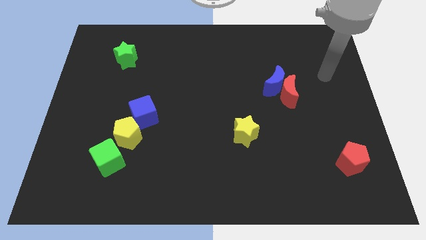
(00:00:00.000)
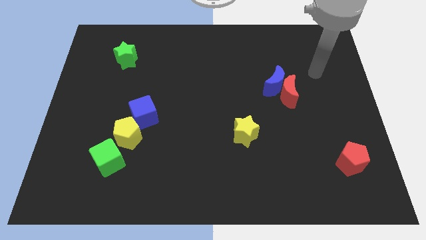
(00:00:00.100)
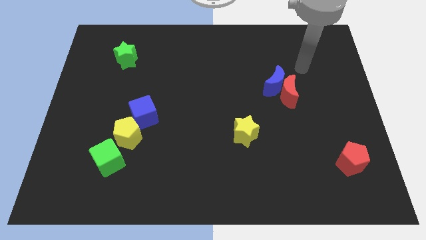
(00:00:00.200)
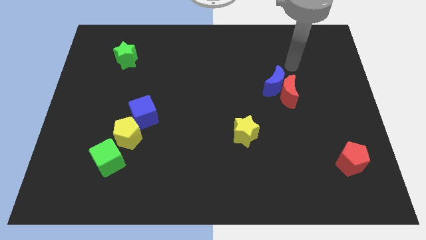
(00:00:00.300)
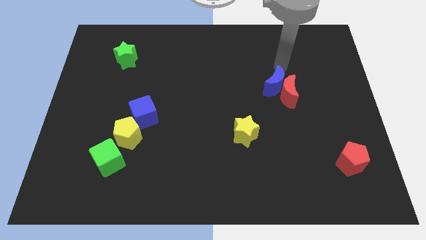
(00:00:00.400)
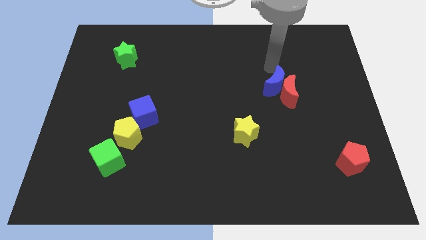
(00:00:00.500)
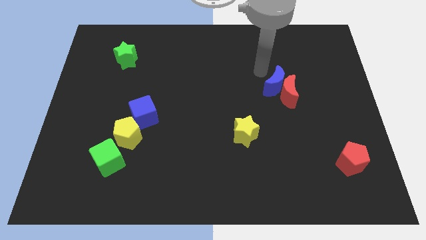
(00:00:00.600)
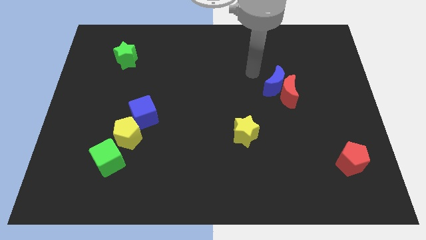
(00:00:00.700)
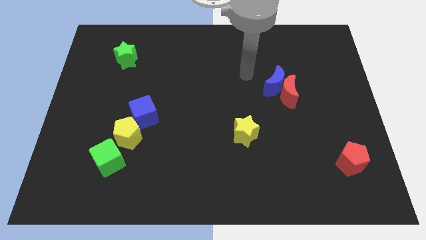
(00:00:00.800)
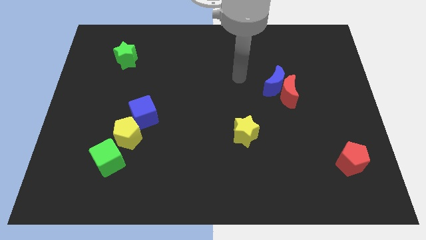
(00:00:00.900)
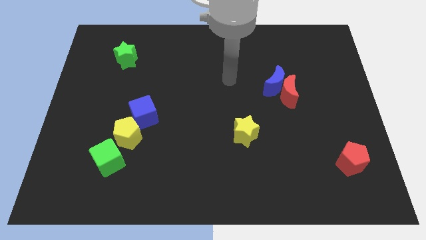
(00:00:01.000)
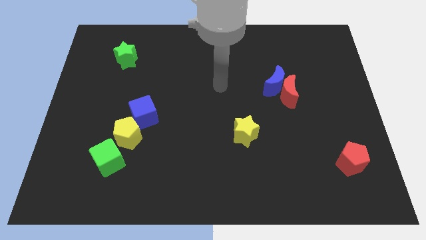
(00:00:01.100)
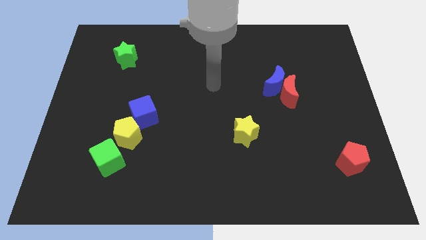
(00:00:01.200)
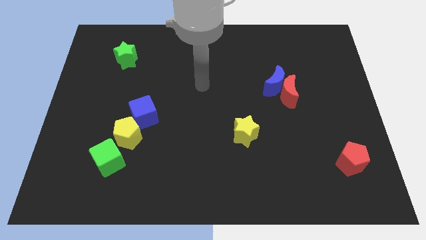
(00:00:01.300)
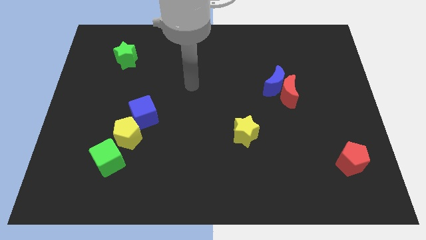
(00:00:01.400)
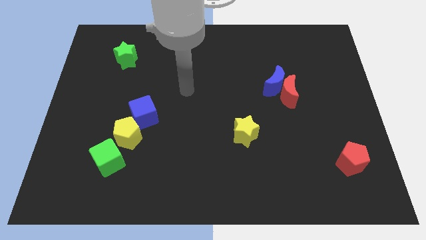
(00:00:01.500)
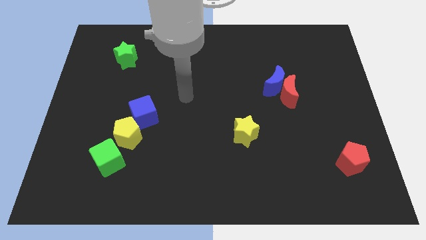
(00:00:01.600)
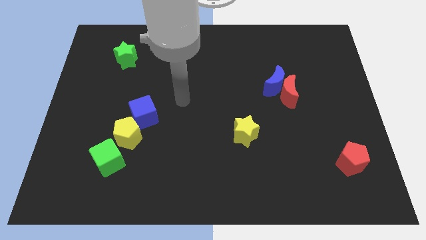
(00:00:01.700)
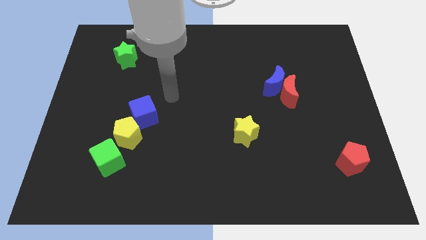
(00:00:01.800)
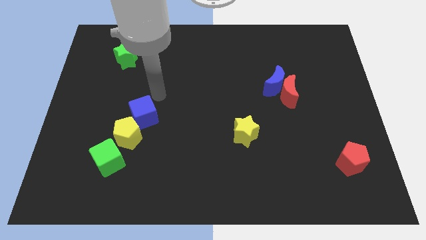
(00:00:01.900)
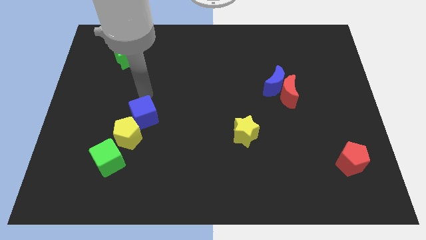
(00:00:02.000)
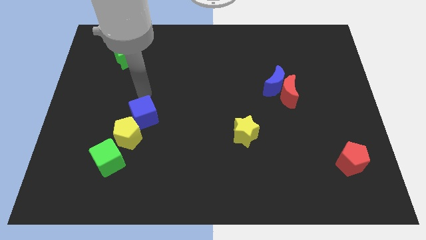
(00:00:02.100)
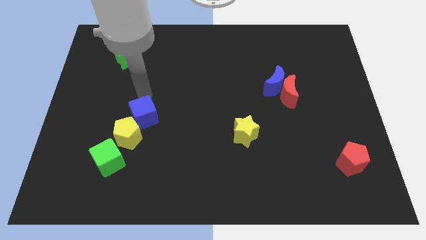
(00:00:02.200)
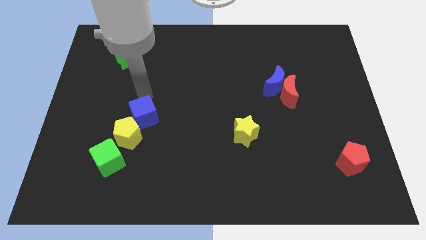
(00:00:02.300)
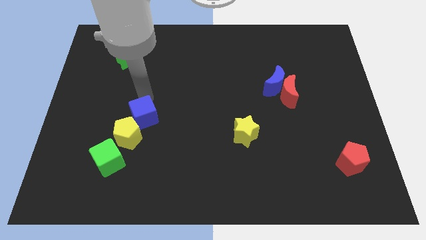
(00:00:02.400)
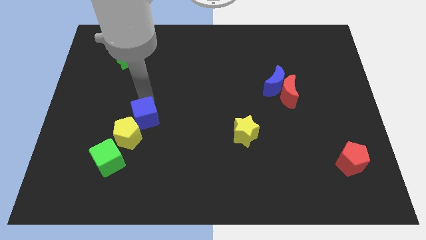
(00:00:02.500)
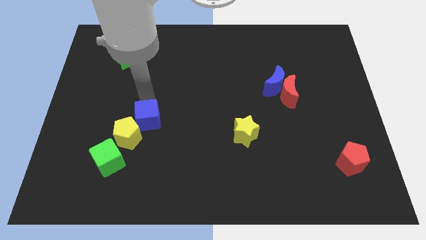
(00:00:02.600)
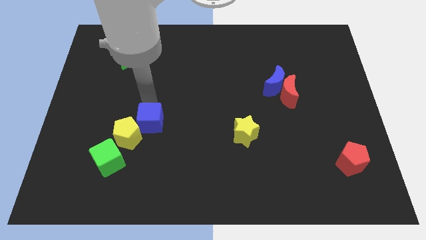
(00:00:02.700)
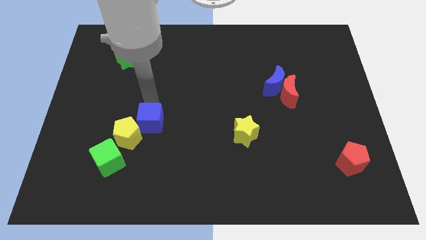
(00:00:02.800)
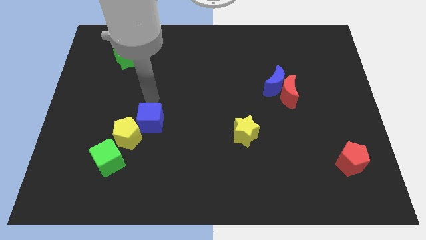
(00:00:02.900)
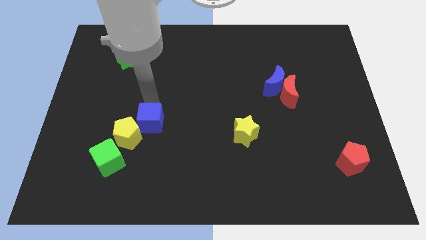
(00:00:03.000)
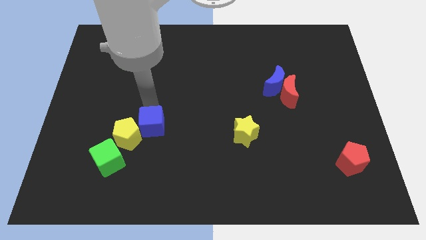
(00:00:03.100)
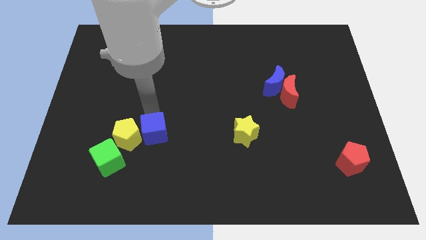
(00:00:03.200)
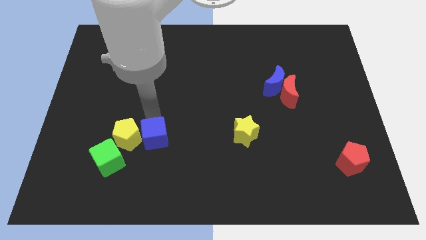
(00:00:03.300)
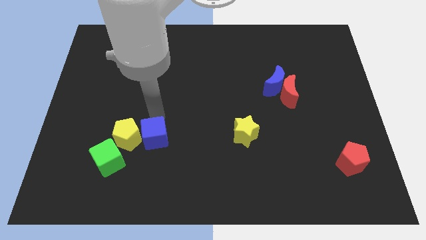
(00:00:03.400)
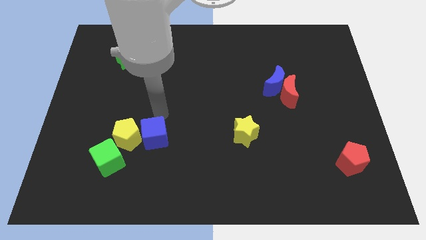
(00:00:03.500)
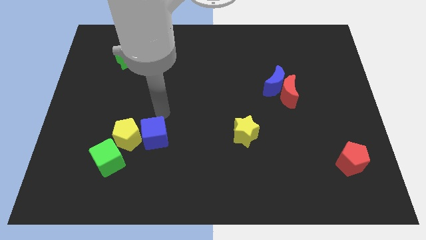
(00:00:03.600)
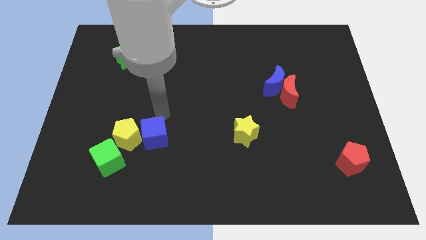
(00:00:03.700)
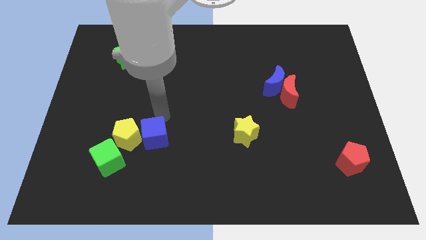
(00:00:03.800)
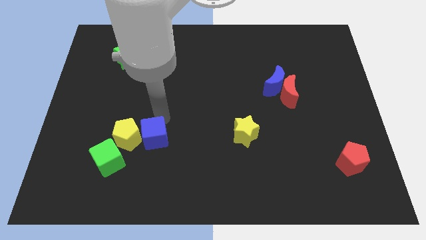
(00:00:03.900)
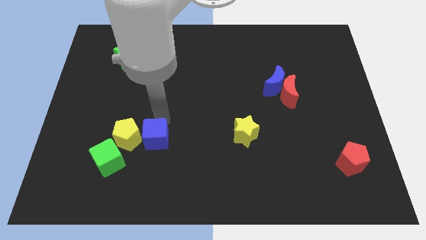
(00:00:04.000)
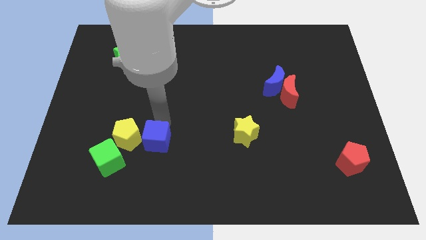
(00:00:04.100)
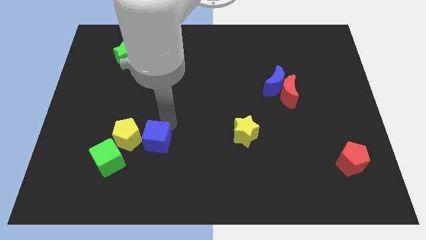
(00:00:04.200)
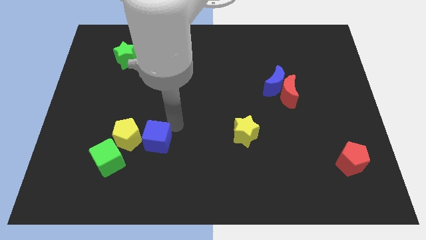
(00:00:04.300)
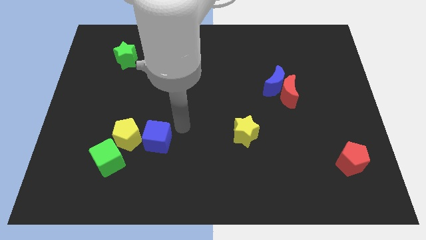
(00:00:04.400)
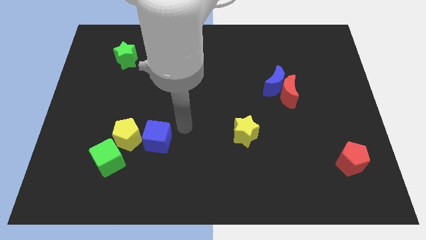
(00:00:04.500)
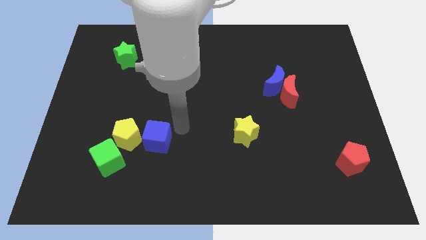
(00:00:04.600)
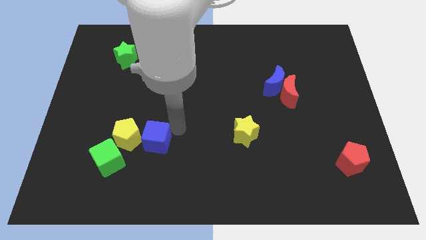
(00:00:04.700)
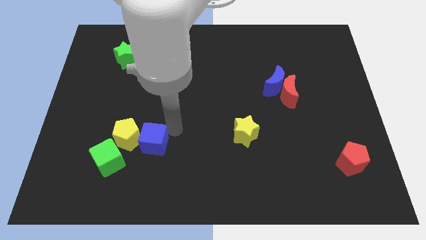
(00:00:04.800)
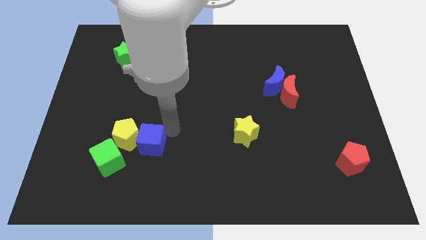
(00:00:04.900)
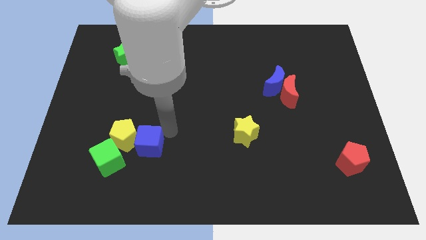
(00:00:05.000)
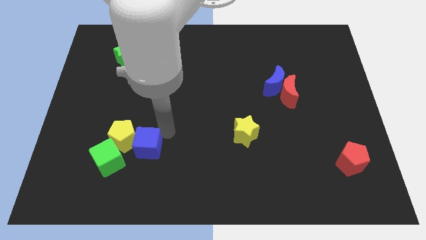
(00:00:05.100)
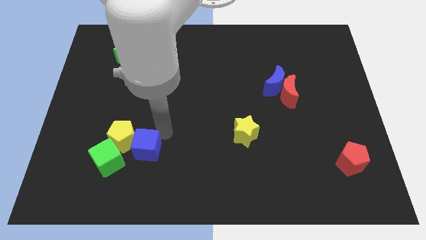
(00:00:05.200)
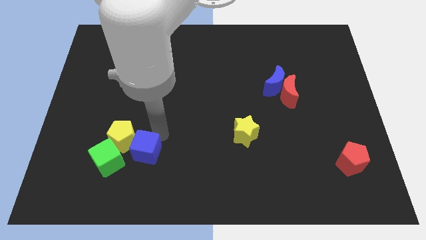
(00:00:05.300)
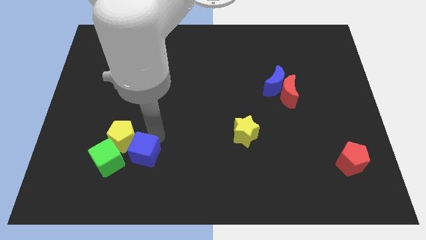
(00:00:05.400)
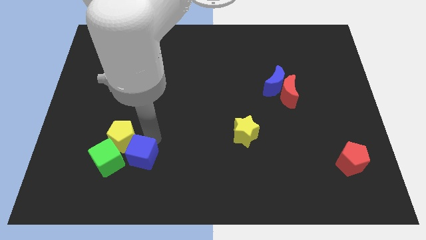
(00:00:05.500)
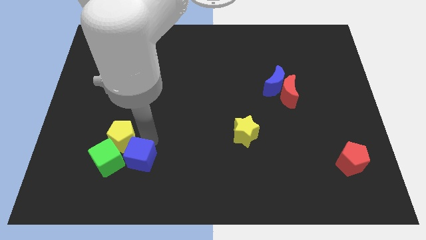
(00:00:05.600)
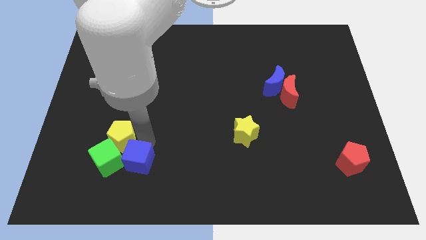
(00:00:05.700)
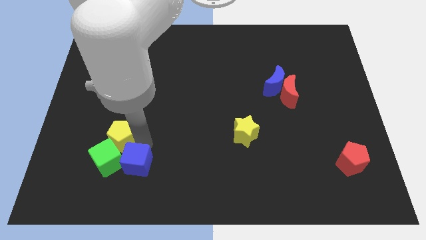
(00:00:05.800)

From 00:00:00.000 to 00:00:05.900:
push the blue cube close to the green cube
